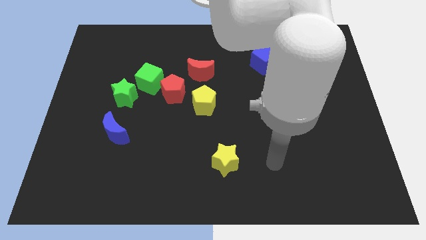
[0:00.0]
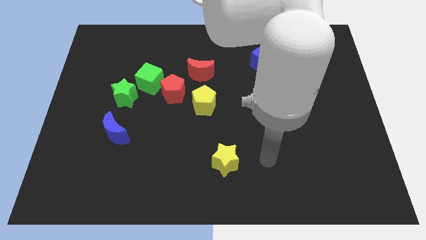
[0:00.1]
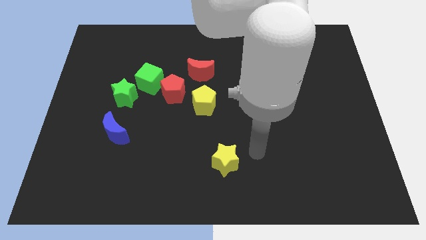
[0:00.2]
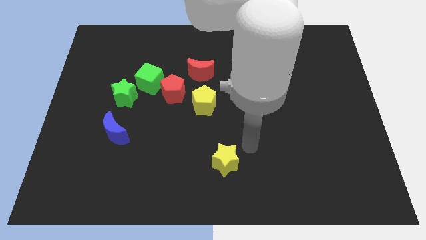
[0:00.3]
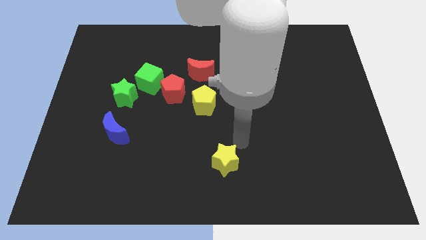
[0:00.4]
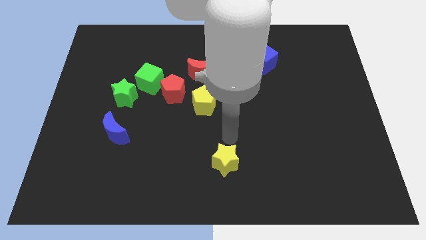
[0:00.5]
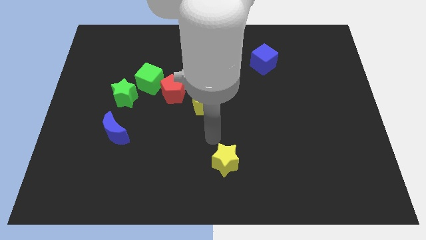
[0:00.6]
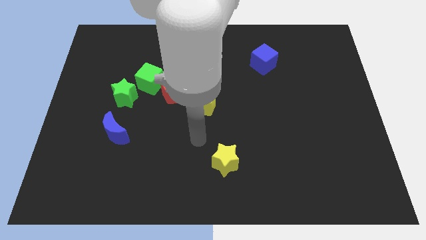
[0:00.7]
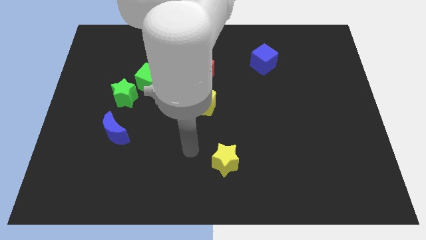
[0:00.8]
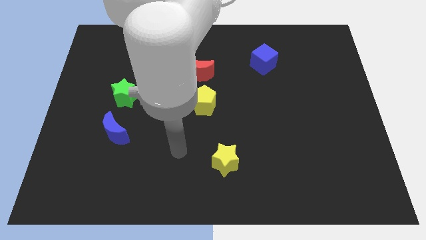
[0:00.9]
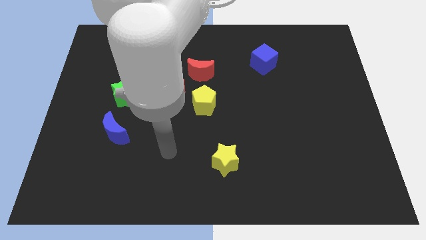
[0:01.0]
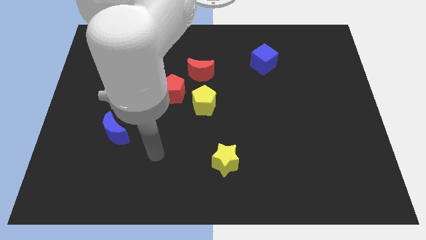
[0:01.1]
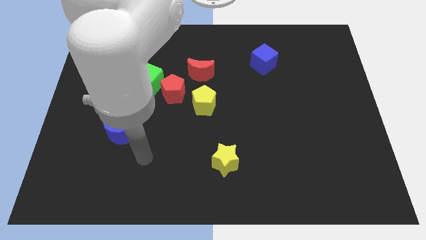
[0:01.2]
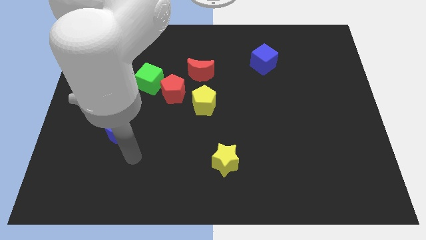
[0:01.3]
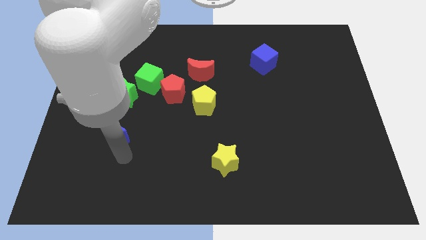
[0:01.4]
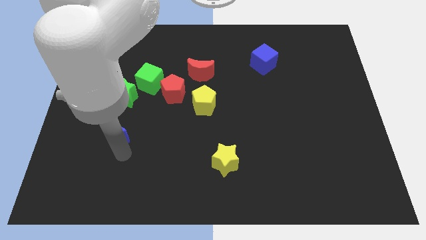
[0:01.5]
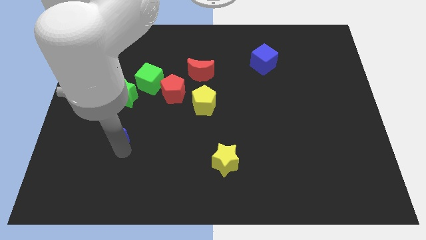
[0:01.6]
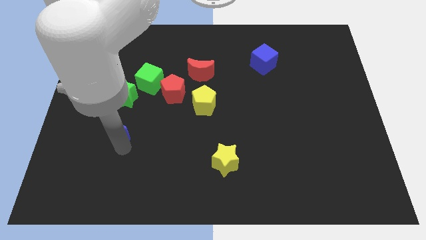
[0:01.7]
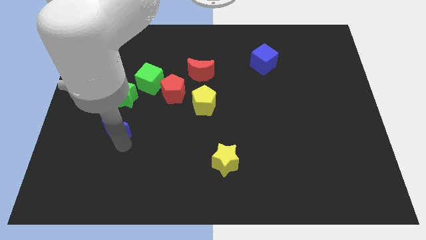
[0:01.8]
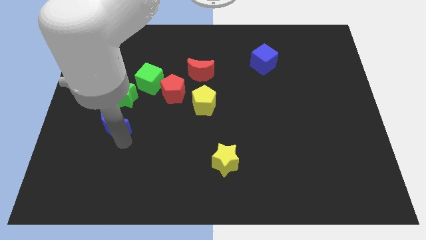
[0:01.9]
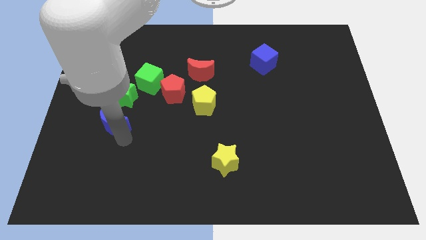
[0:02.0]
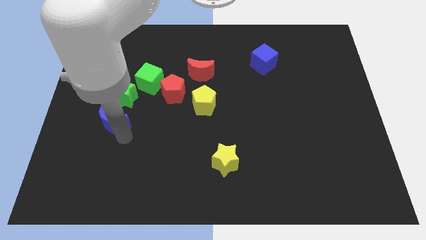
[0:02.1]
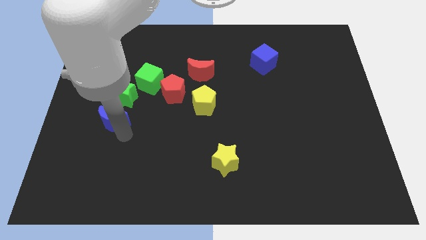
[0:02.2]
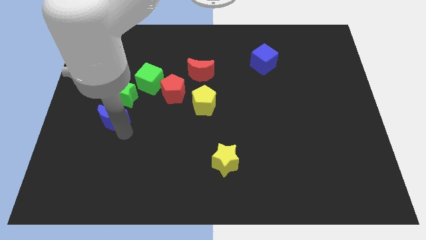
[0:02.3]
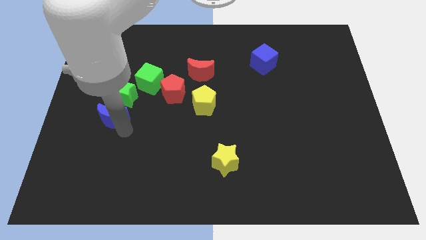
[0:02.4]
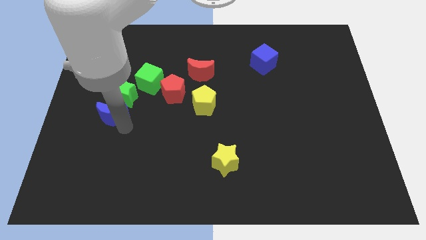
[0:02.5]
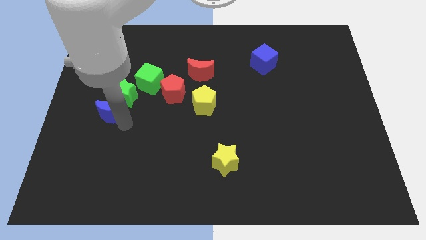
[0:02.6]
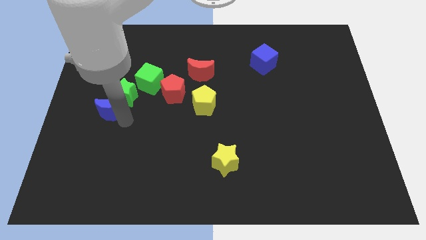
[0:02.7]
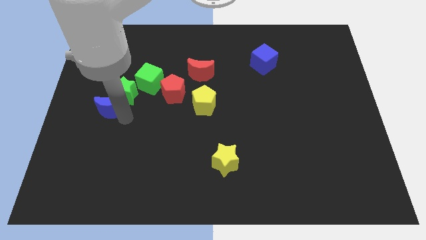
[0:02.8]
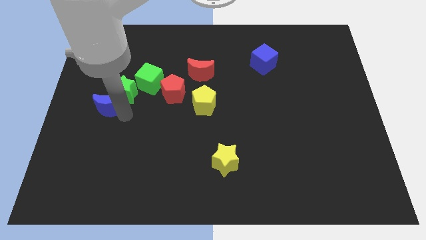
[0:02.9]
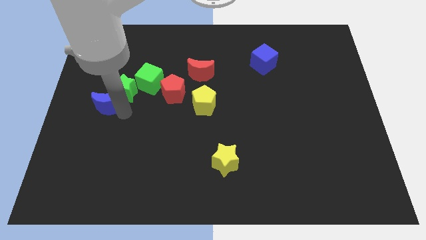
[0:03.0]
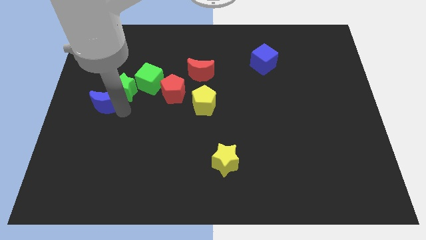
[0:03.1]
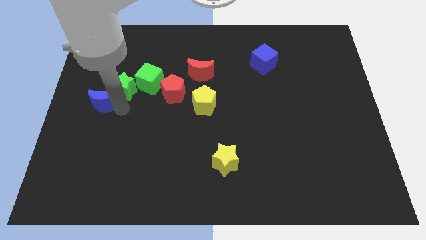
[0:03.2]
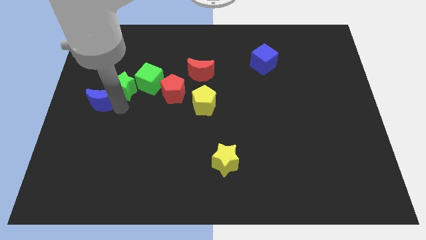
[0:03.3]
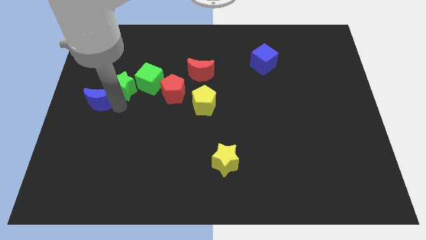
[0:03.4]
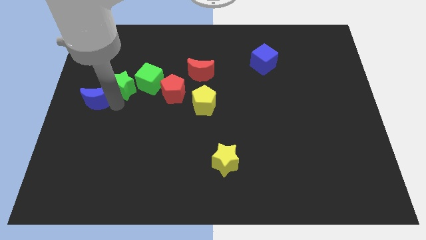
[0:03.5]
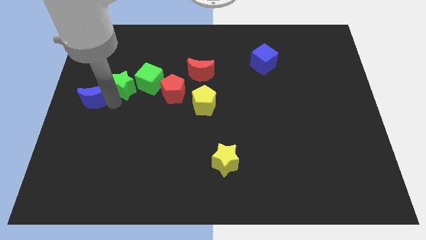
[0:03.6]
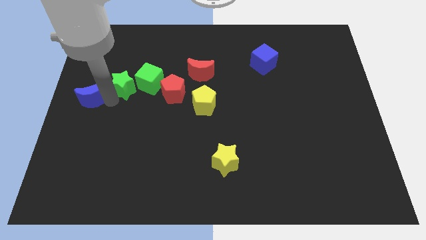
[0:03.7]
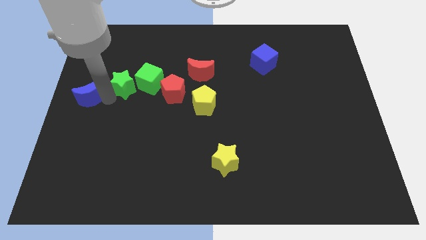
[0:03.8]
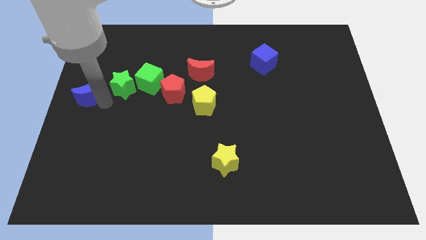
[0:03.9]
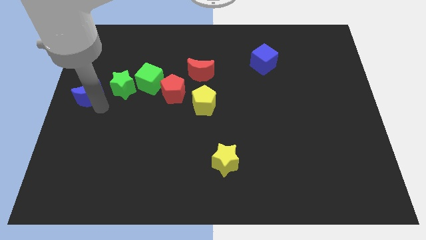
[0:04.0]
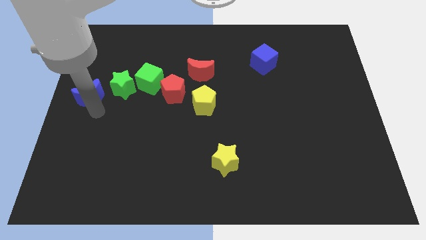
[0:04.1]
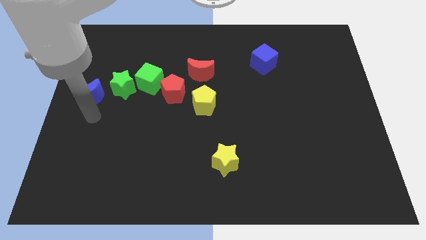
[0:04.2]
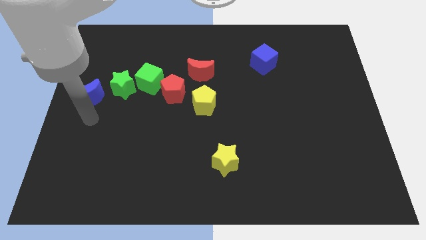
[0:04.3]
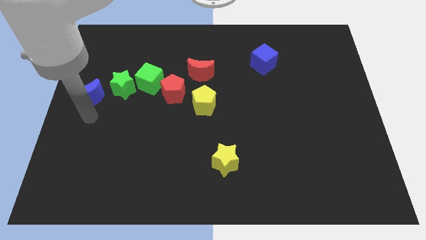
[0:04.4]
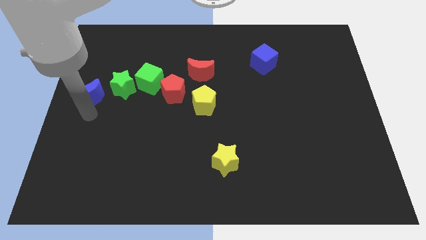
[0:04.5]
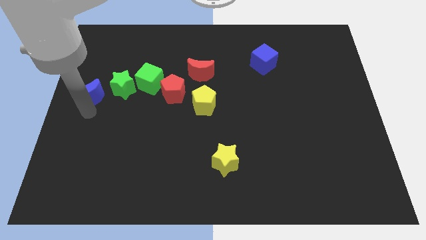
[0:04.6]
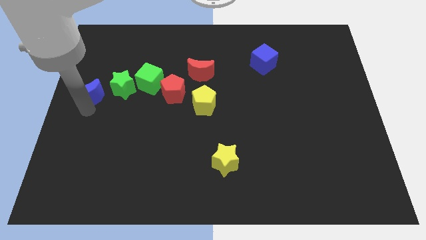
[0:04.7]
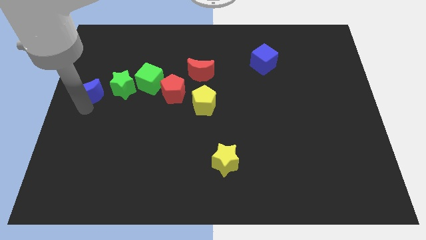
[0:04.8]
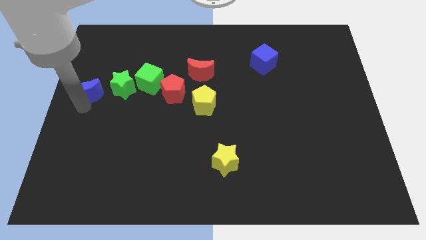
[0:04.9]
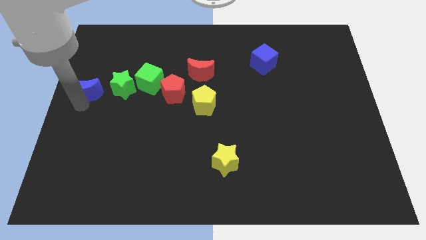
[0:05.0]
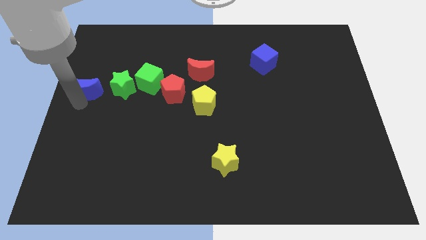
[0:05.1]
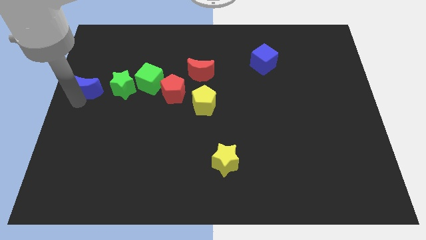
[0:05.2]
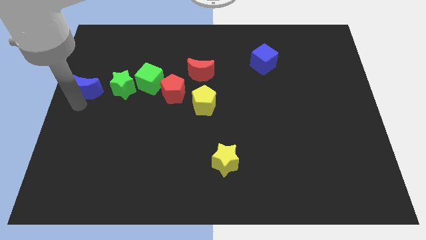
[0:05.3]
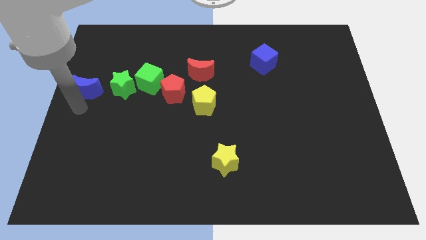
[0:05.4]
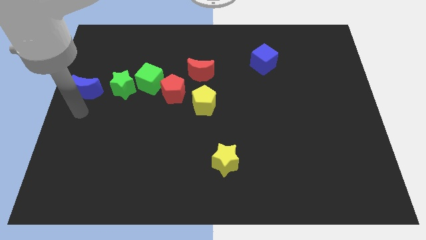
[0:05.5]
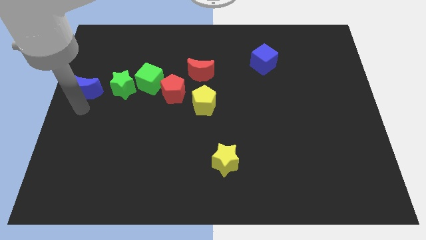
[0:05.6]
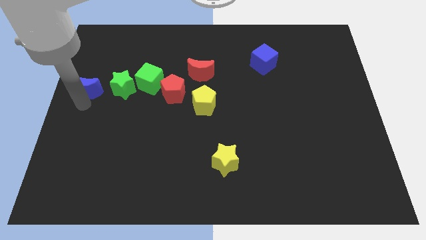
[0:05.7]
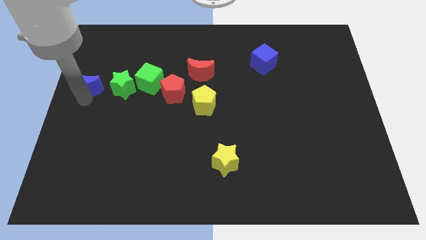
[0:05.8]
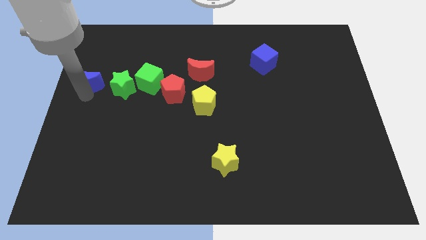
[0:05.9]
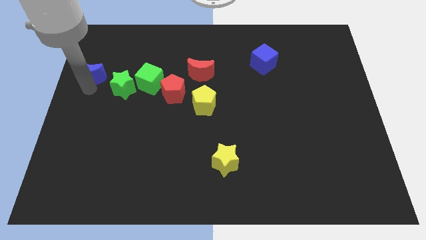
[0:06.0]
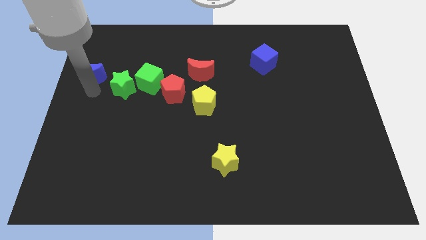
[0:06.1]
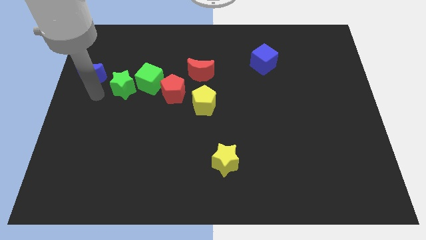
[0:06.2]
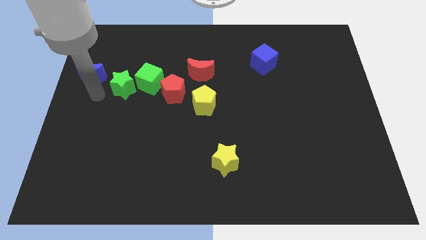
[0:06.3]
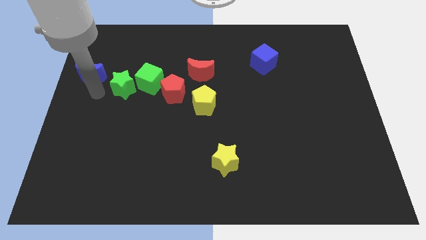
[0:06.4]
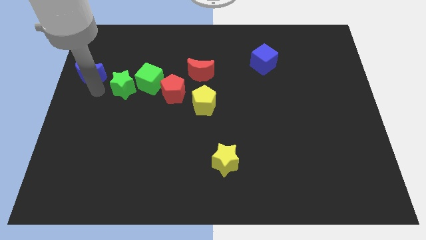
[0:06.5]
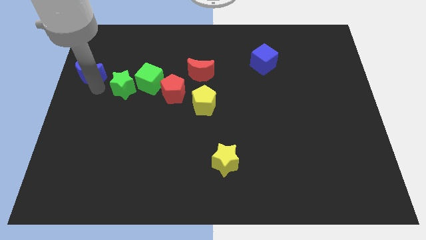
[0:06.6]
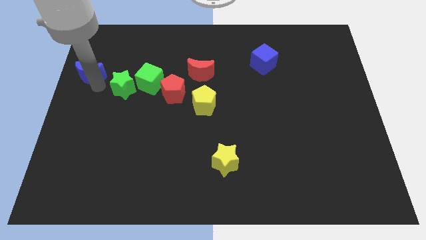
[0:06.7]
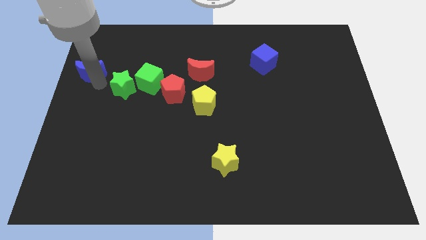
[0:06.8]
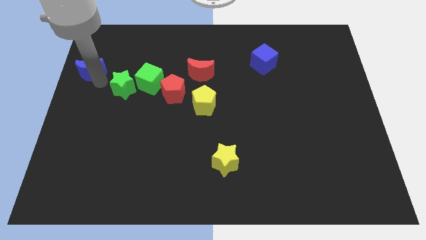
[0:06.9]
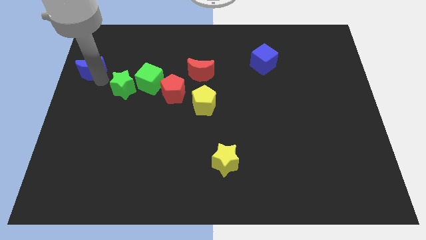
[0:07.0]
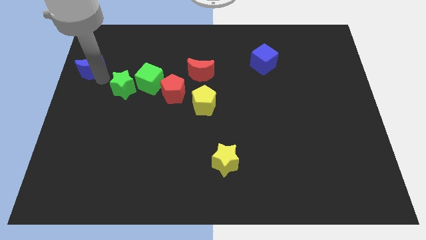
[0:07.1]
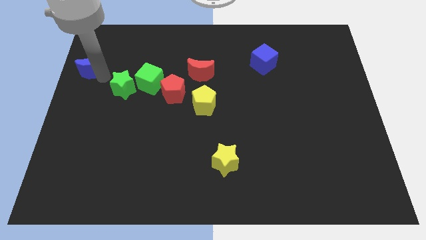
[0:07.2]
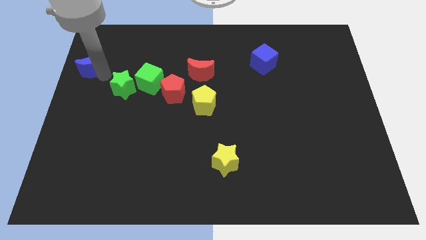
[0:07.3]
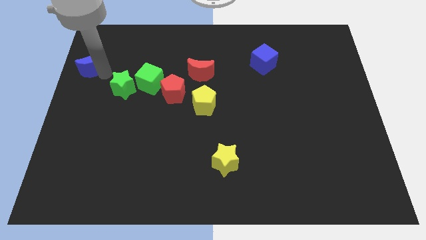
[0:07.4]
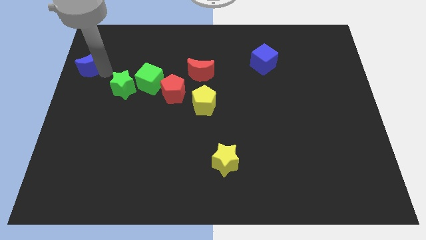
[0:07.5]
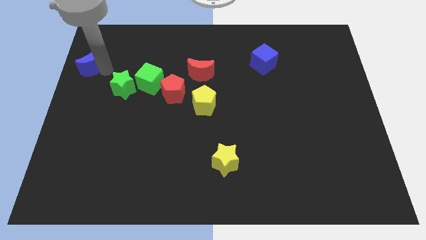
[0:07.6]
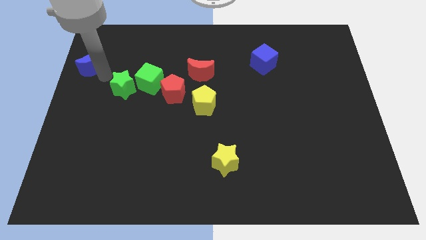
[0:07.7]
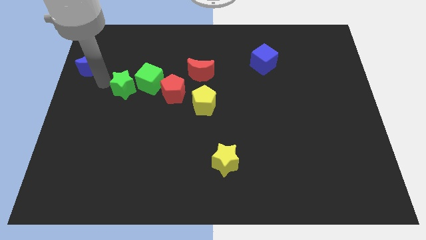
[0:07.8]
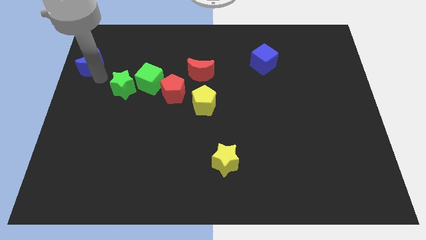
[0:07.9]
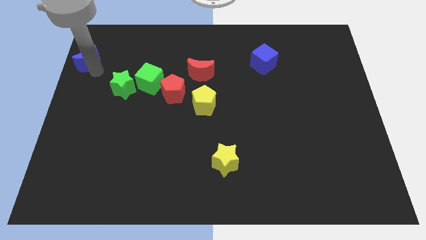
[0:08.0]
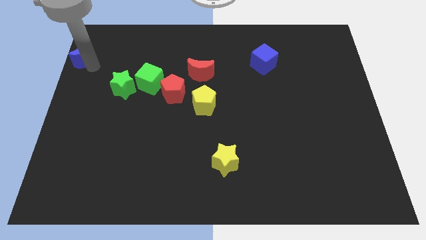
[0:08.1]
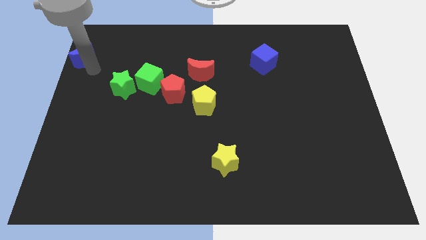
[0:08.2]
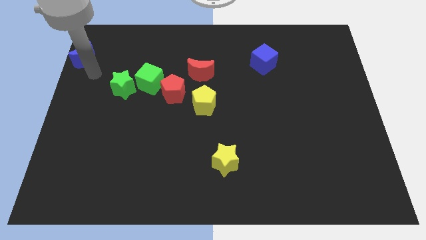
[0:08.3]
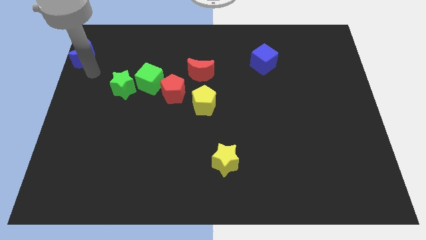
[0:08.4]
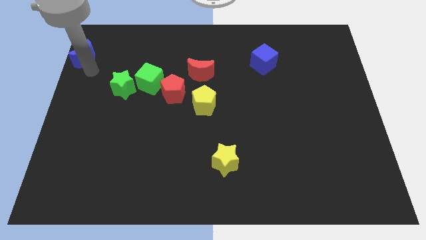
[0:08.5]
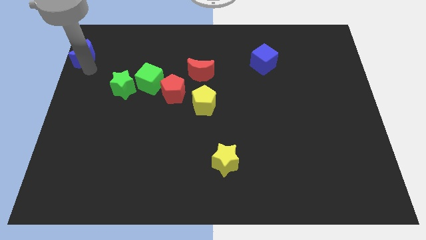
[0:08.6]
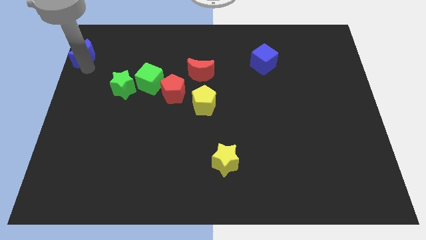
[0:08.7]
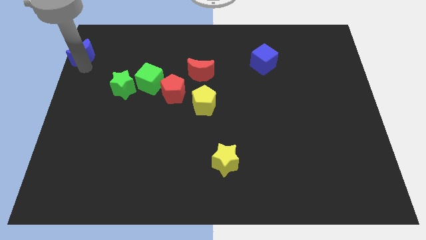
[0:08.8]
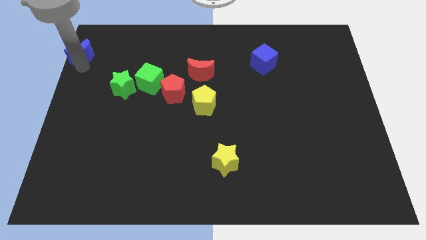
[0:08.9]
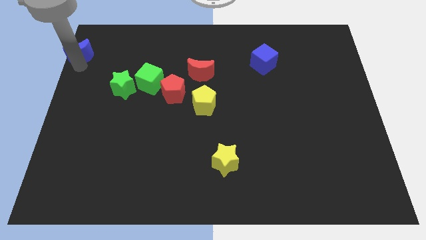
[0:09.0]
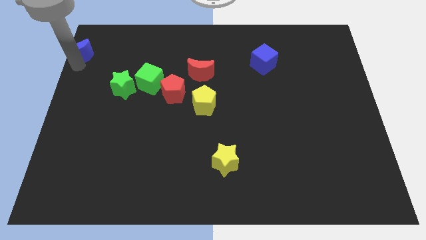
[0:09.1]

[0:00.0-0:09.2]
move the blue moon to the top left of the board
